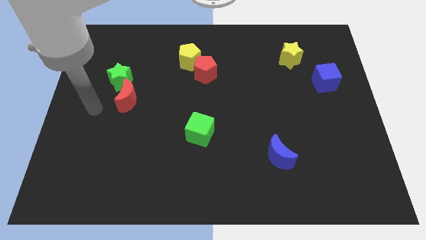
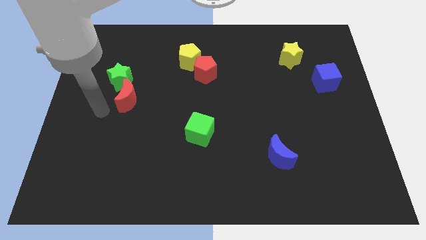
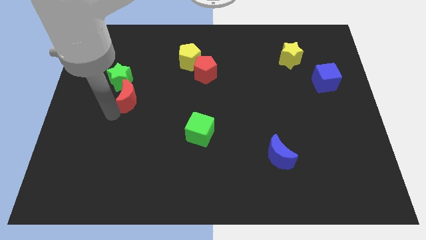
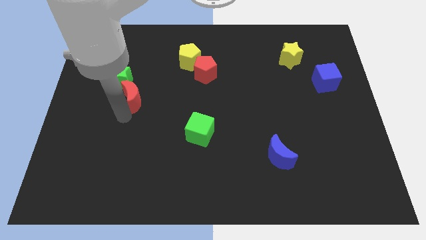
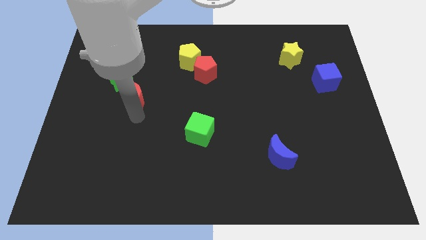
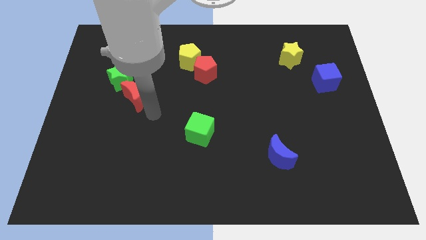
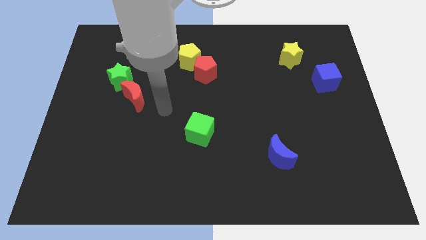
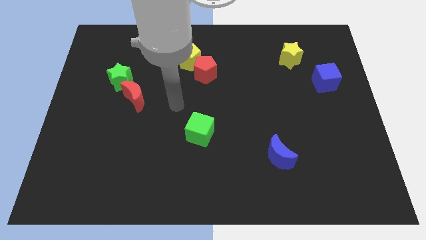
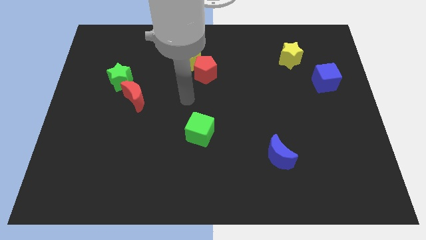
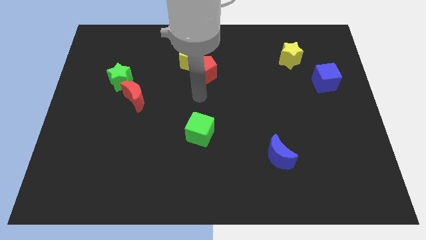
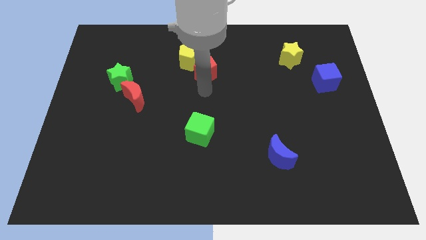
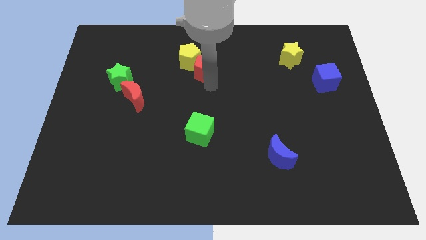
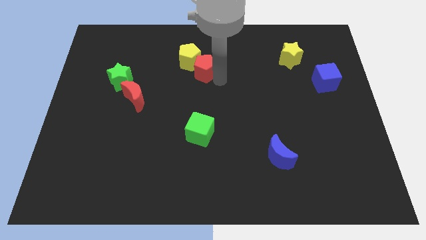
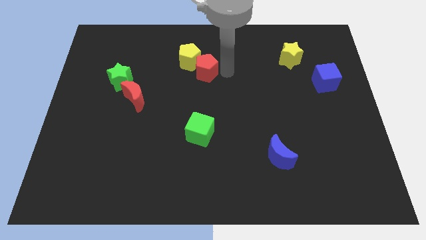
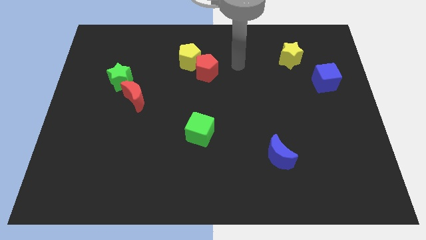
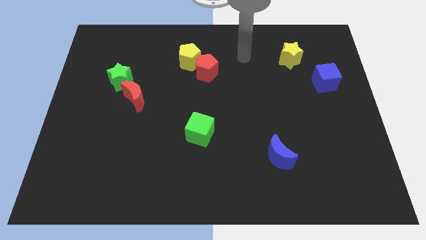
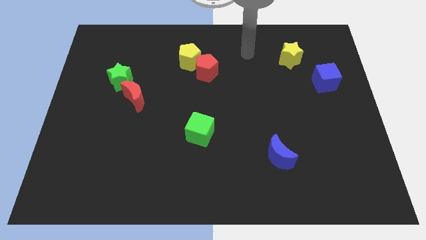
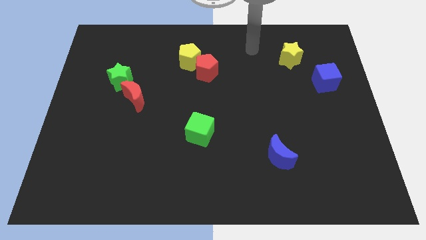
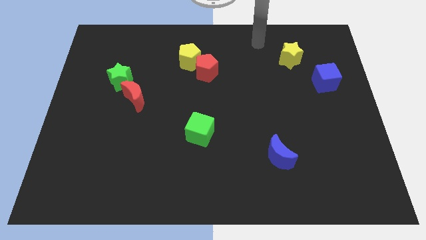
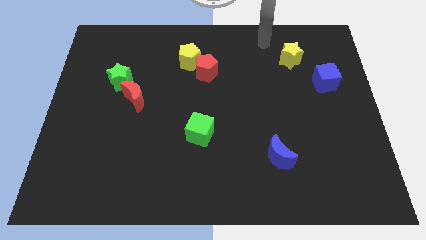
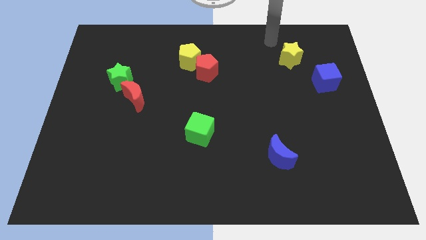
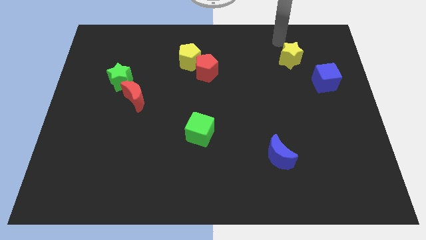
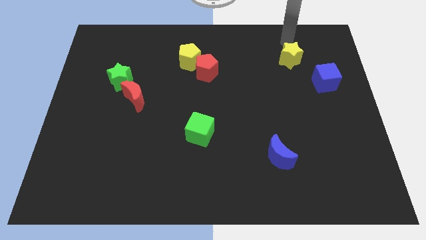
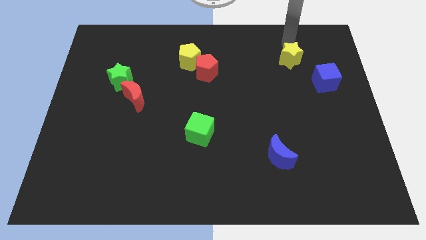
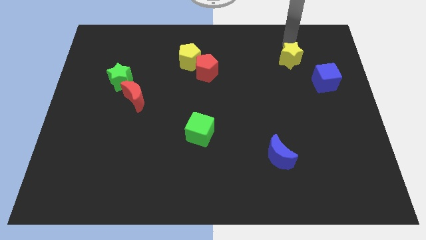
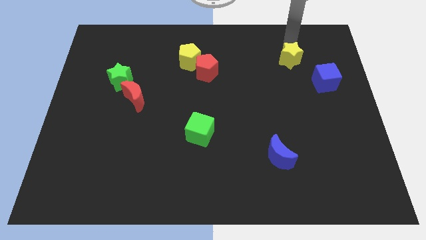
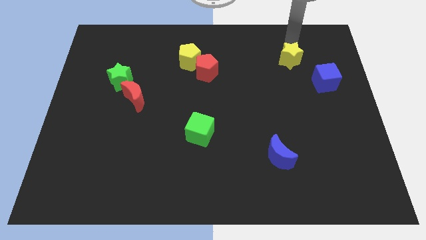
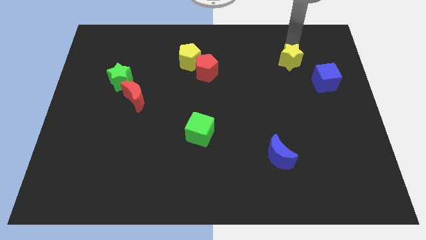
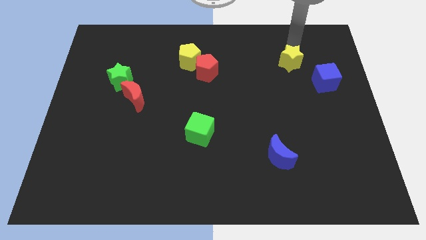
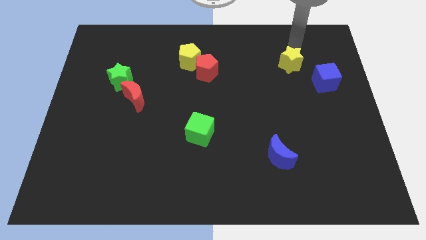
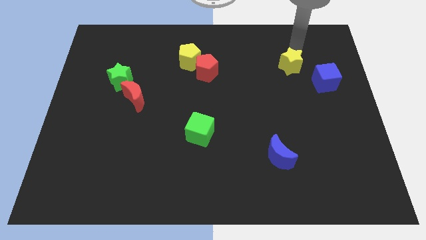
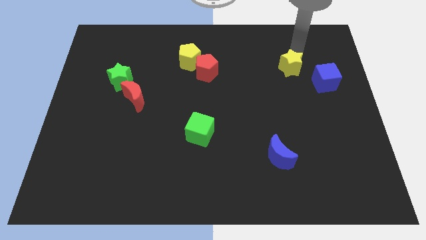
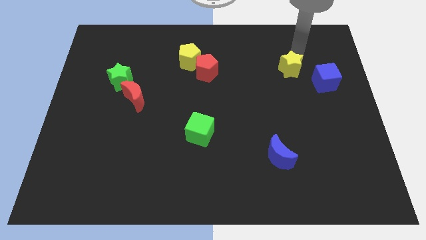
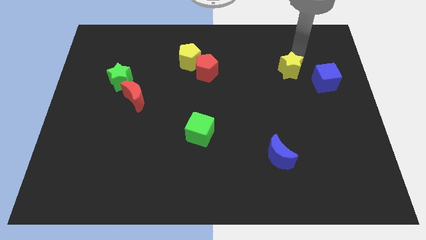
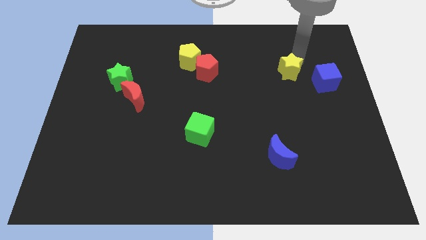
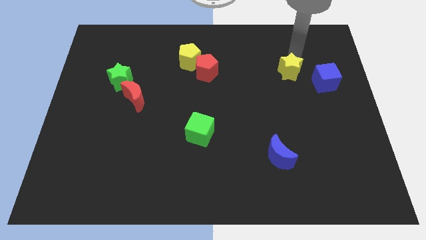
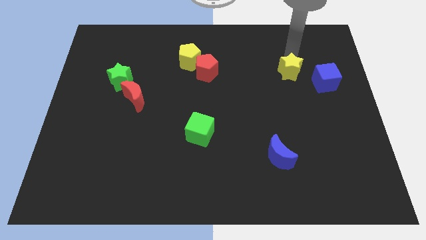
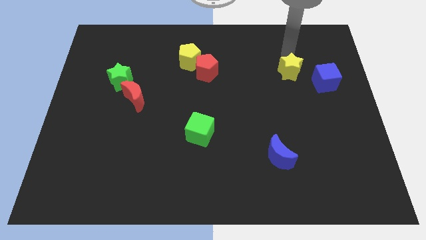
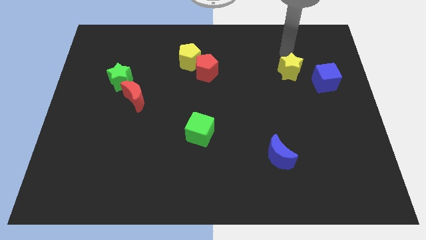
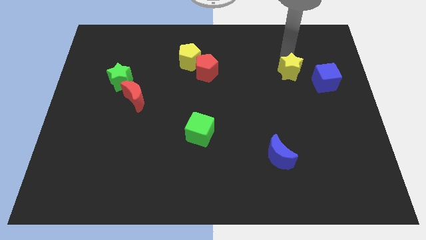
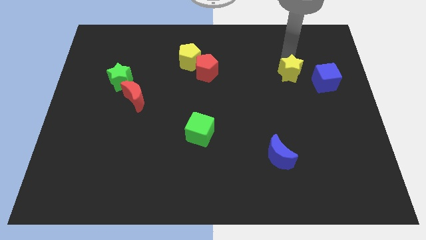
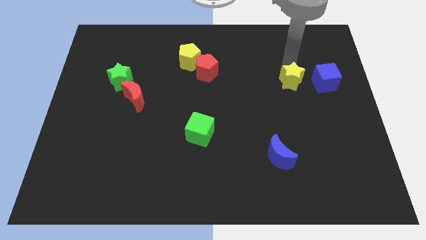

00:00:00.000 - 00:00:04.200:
move the yellow star a little bit downwards

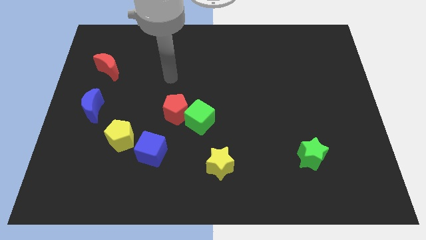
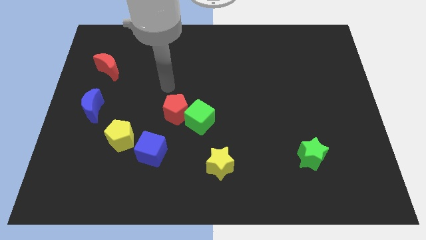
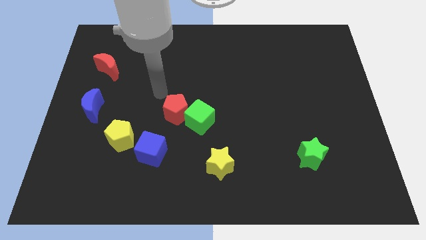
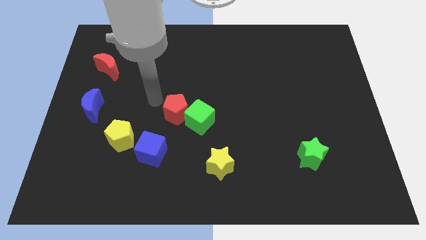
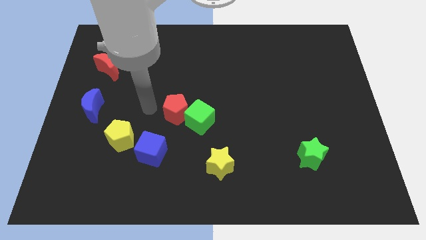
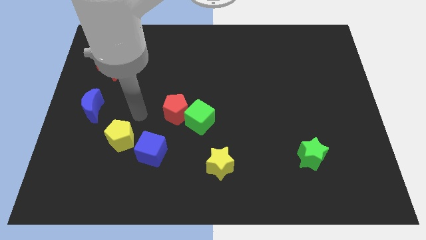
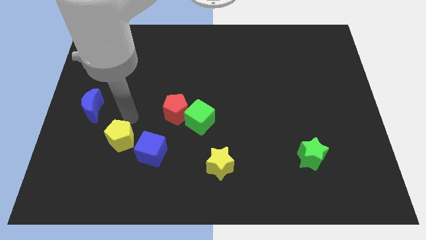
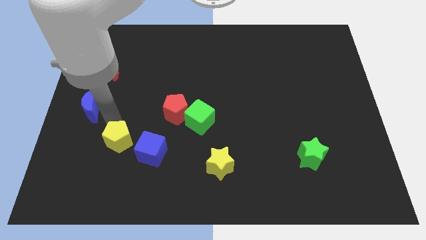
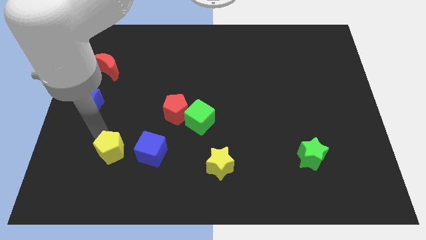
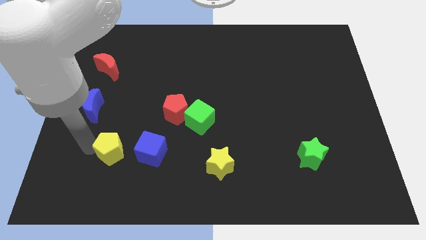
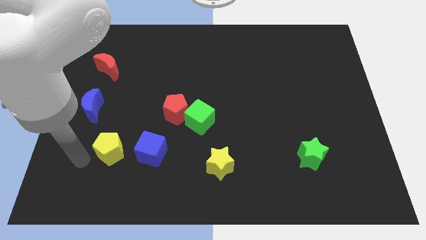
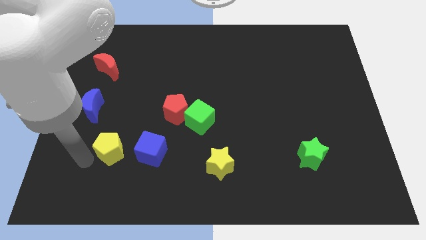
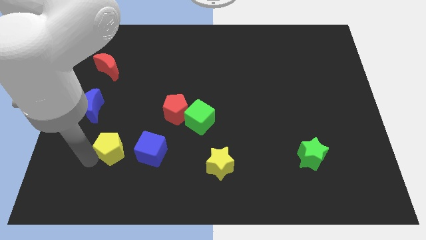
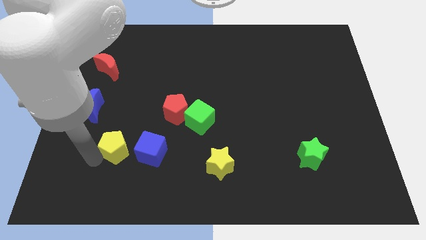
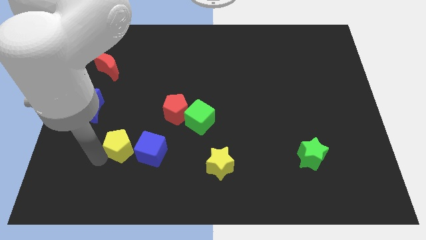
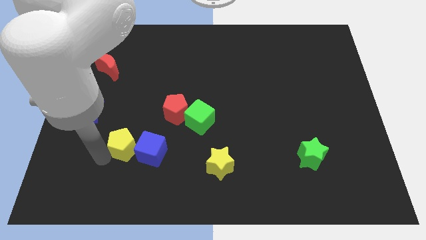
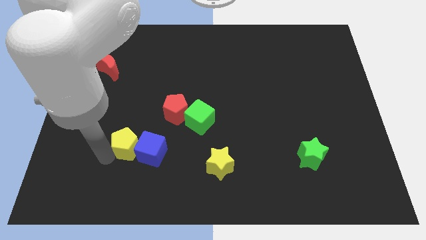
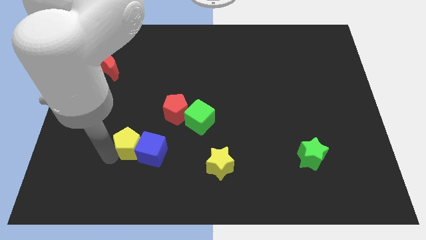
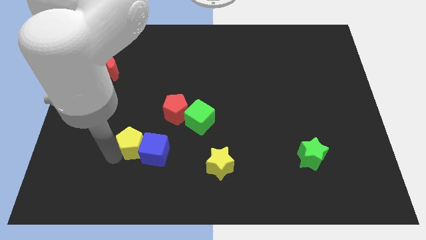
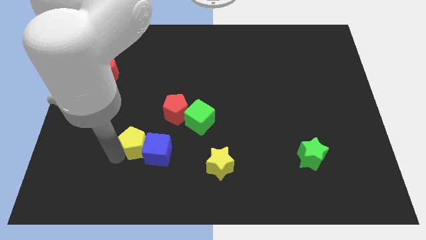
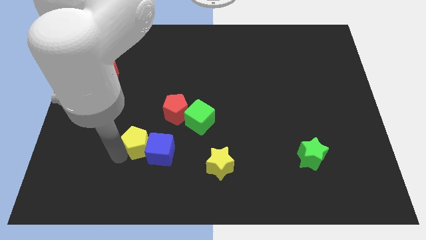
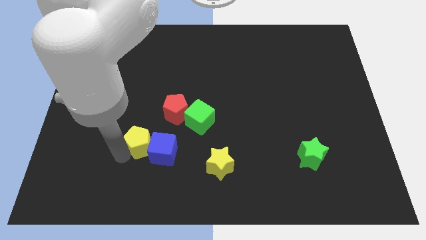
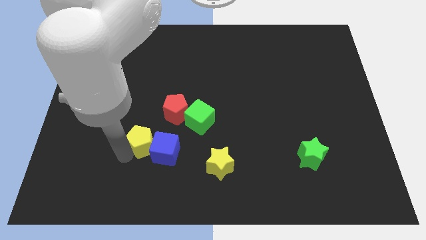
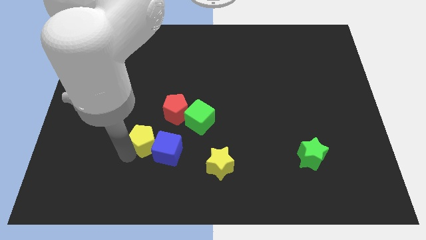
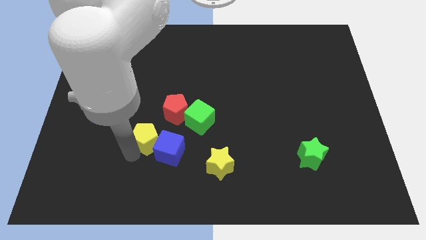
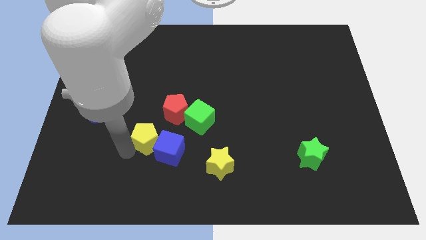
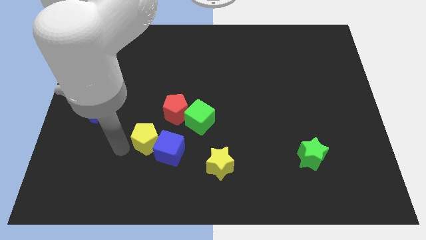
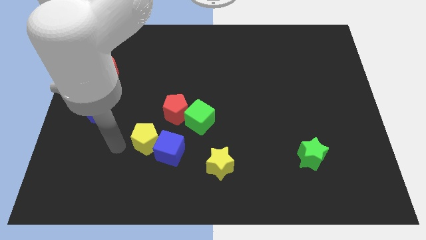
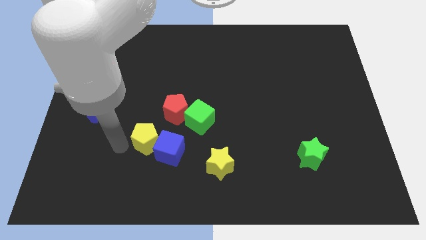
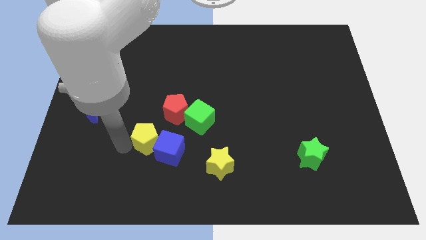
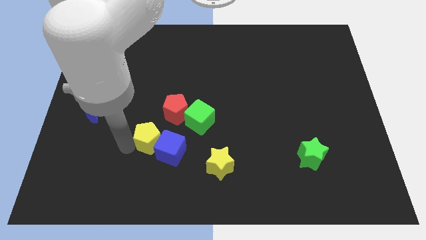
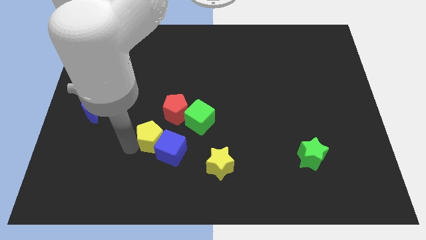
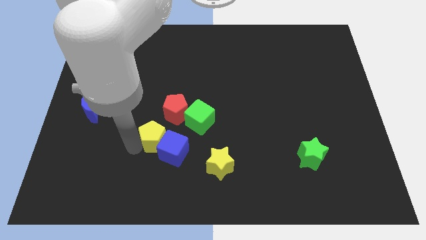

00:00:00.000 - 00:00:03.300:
slide the yellow pentagon to the right a little

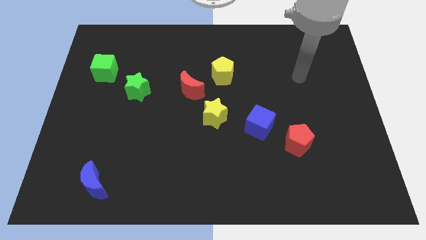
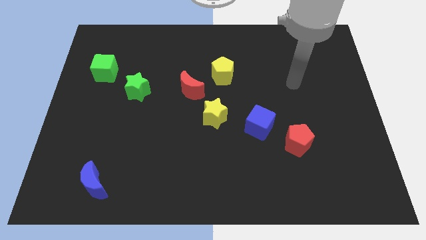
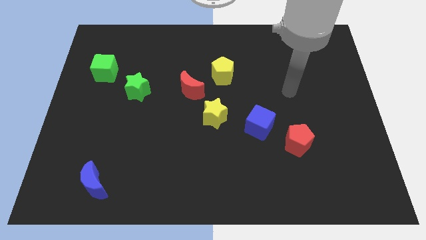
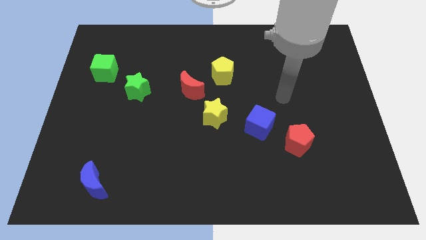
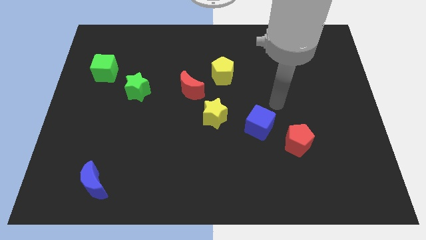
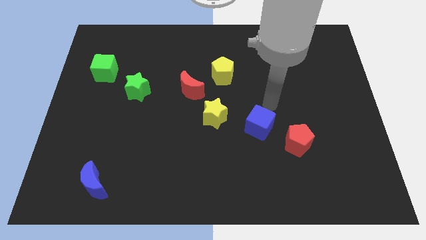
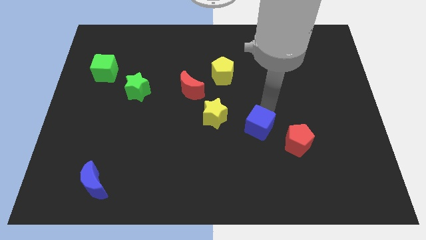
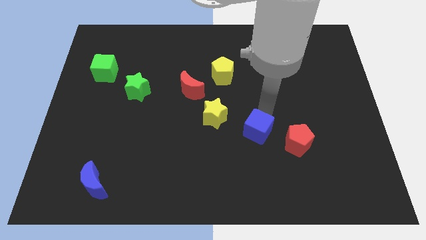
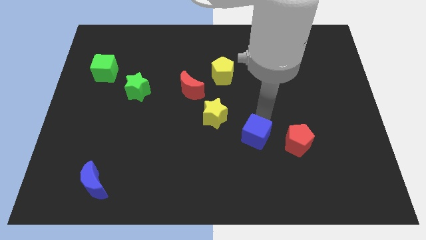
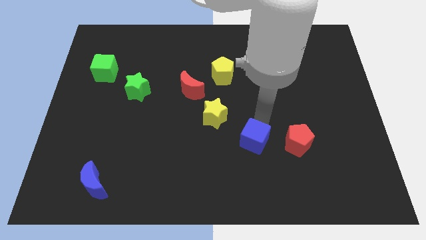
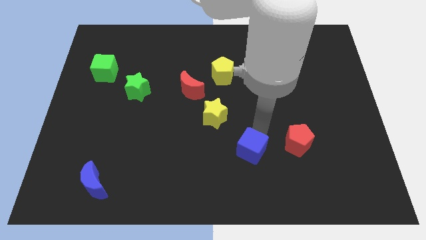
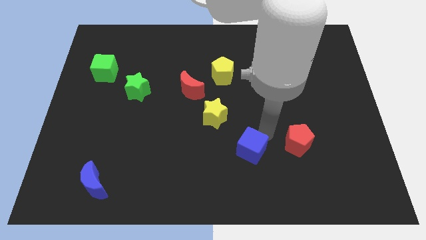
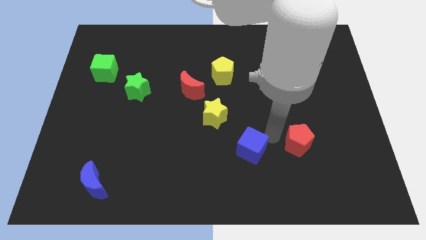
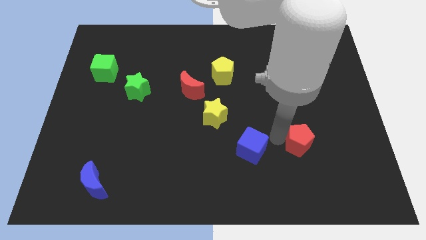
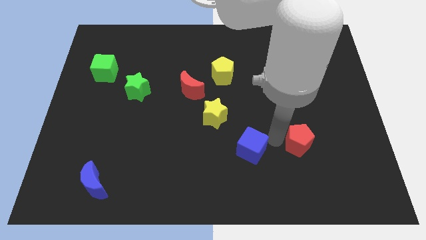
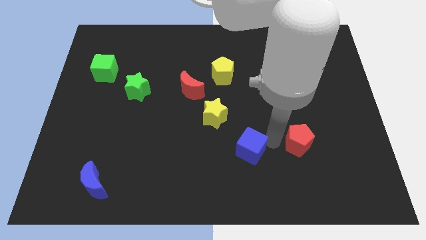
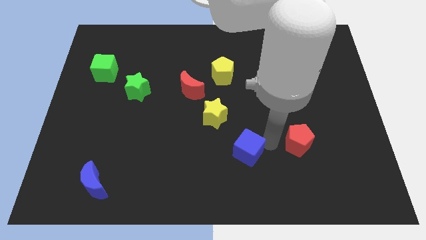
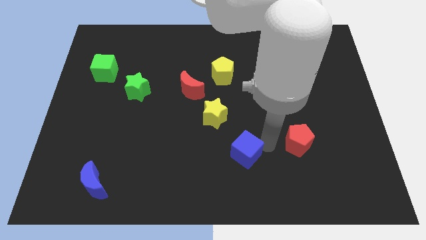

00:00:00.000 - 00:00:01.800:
slightly push the blue cube down and to the left
